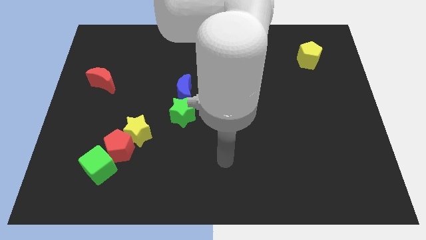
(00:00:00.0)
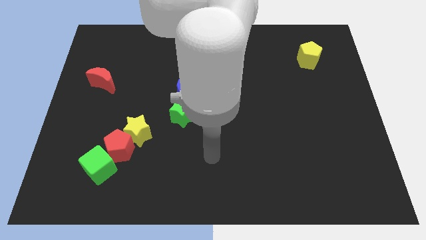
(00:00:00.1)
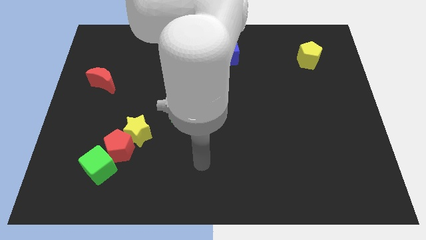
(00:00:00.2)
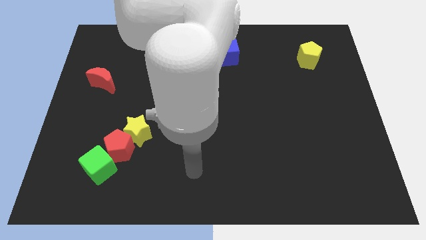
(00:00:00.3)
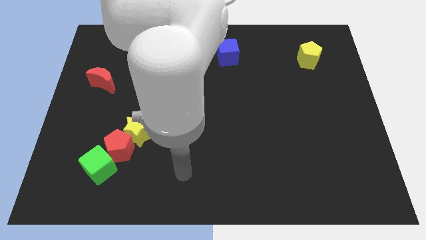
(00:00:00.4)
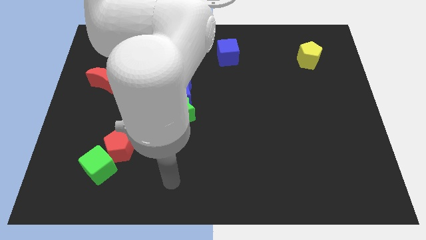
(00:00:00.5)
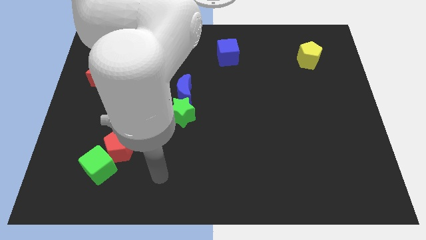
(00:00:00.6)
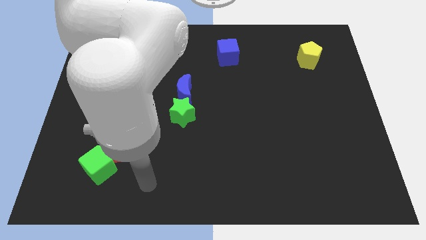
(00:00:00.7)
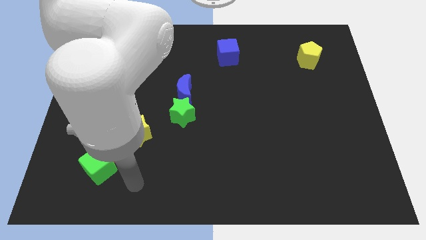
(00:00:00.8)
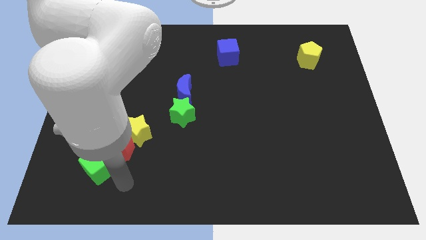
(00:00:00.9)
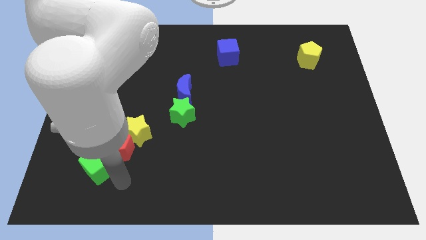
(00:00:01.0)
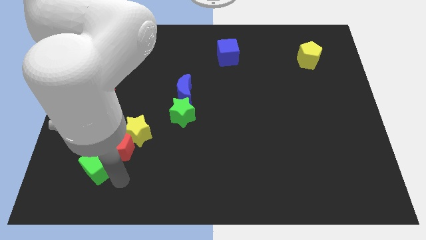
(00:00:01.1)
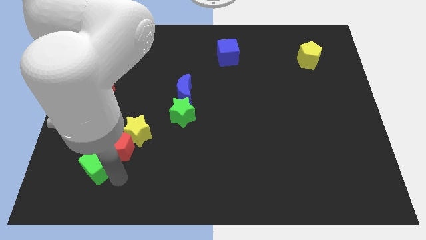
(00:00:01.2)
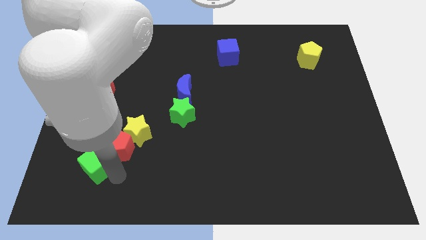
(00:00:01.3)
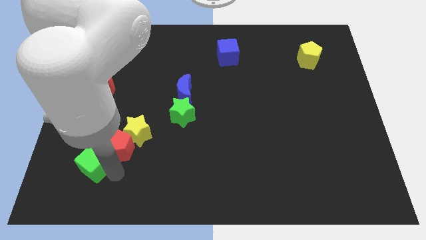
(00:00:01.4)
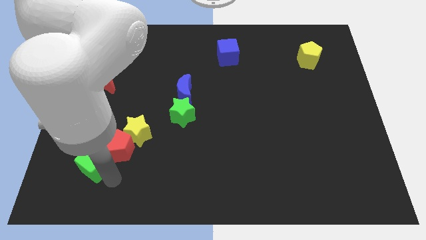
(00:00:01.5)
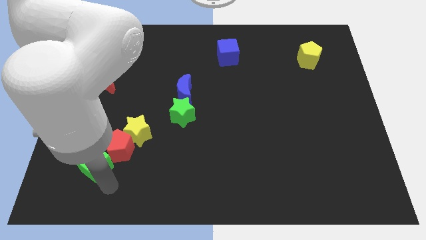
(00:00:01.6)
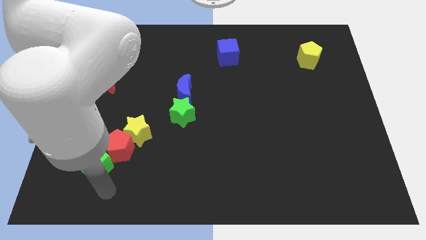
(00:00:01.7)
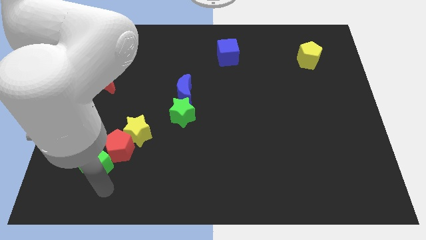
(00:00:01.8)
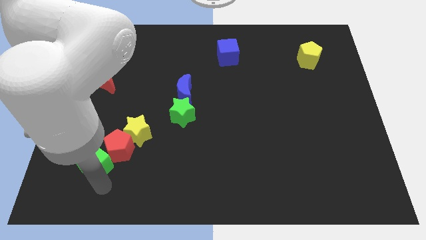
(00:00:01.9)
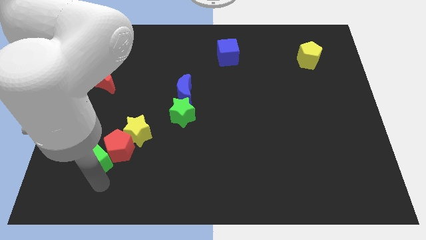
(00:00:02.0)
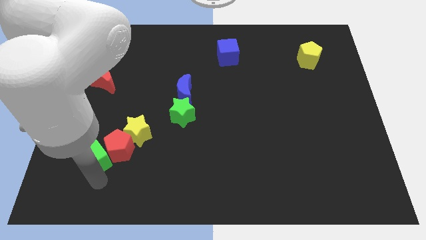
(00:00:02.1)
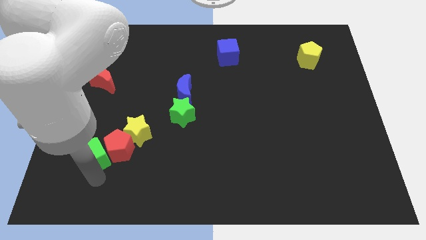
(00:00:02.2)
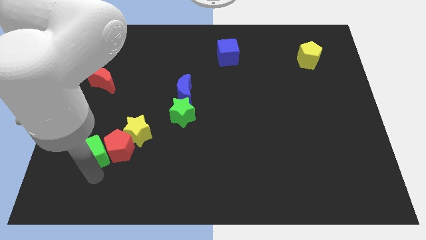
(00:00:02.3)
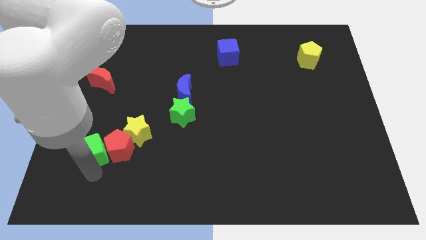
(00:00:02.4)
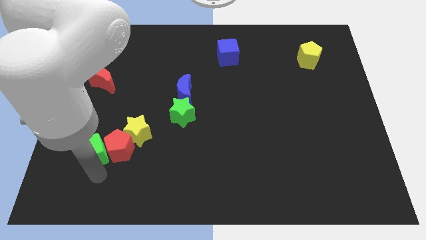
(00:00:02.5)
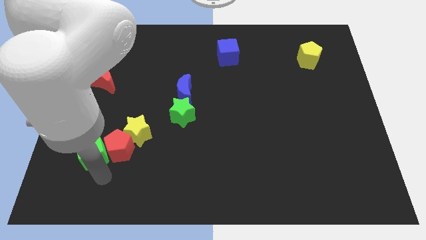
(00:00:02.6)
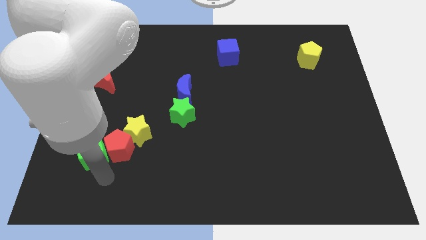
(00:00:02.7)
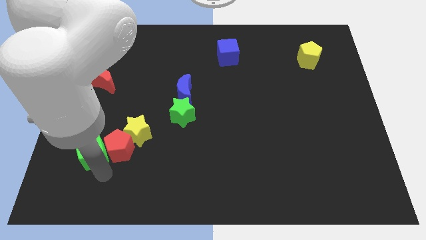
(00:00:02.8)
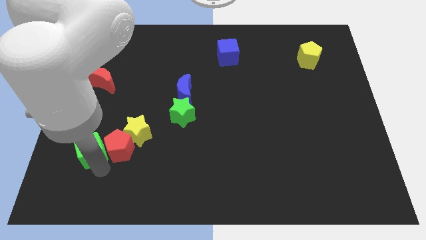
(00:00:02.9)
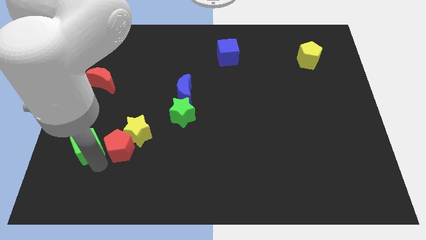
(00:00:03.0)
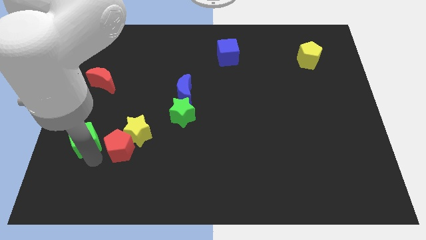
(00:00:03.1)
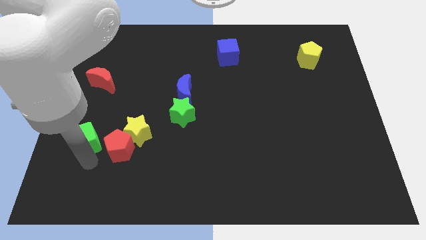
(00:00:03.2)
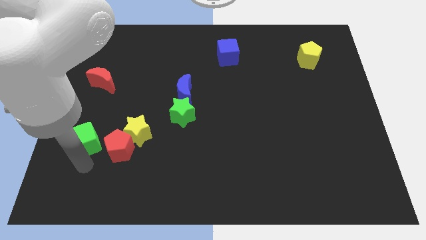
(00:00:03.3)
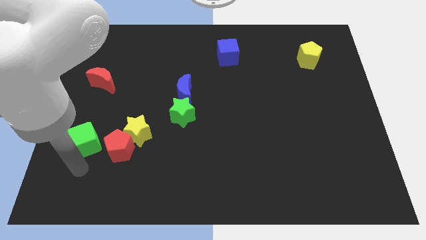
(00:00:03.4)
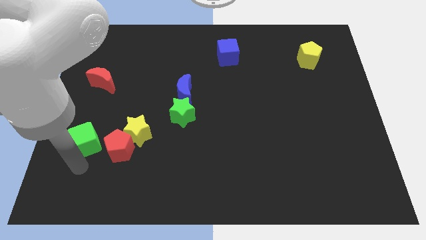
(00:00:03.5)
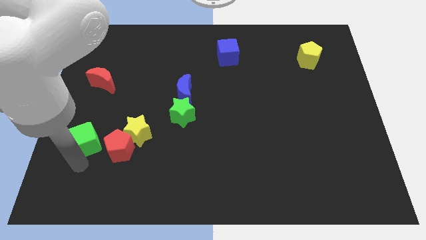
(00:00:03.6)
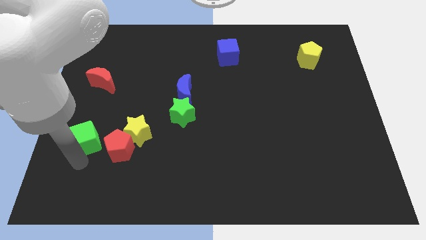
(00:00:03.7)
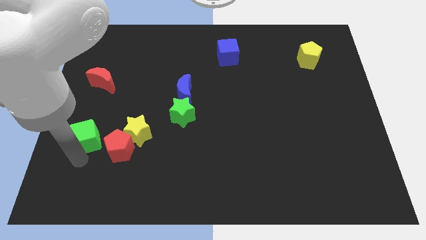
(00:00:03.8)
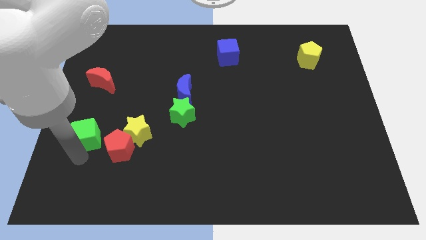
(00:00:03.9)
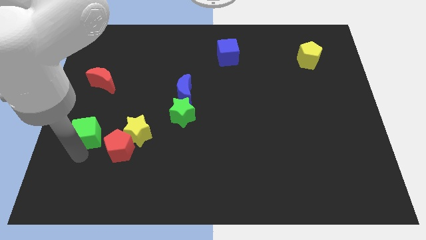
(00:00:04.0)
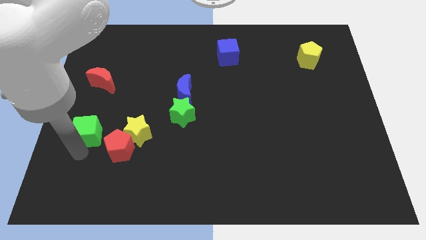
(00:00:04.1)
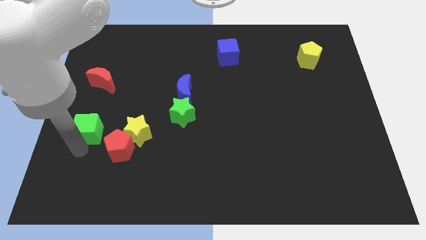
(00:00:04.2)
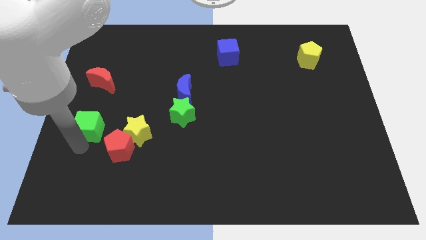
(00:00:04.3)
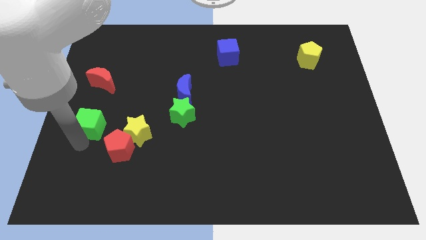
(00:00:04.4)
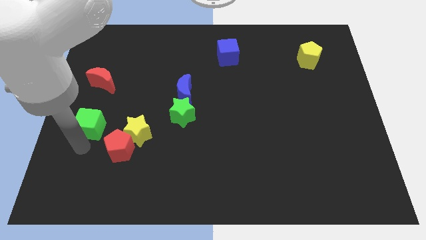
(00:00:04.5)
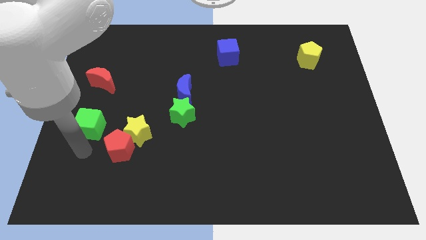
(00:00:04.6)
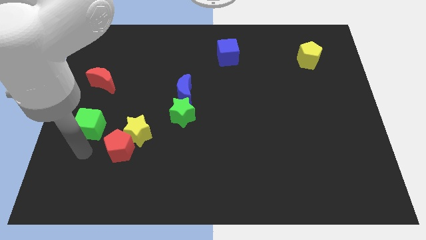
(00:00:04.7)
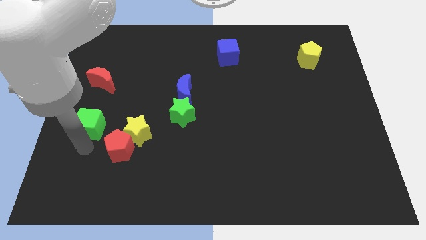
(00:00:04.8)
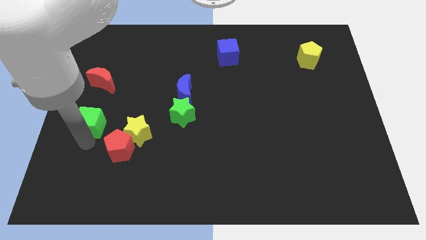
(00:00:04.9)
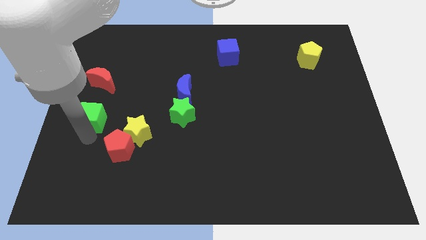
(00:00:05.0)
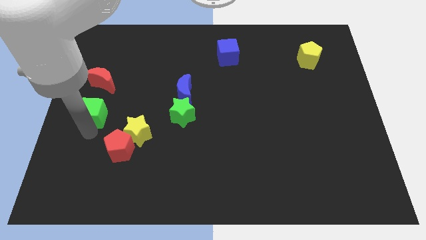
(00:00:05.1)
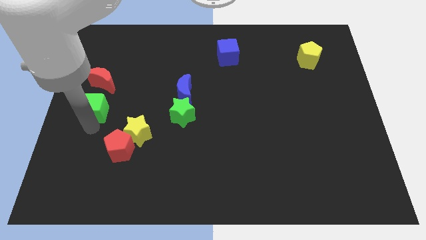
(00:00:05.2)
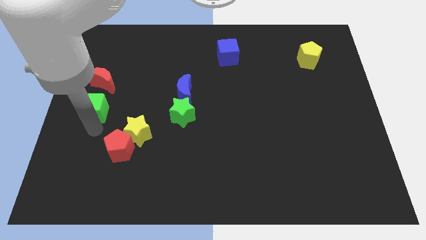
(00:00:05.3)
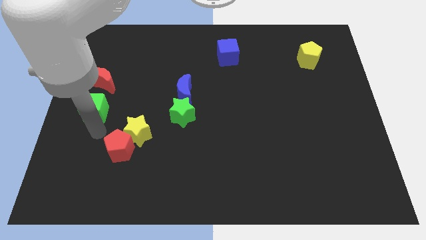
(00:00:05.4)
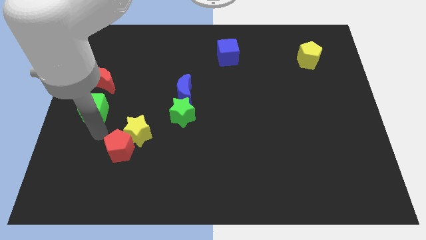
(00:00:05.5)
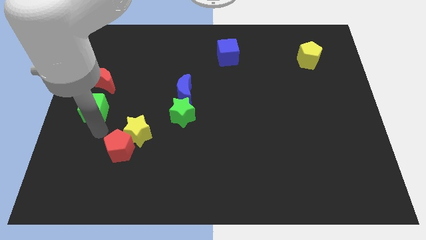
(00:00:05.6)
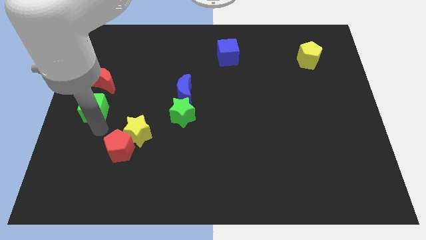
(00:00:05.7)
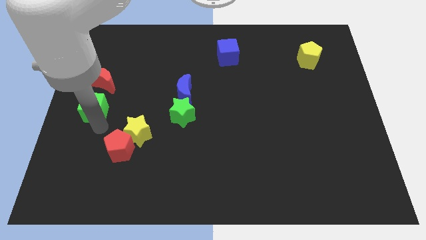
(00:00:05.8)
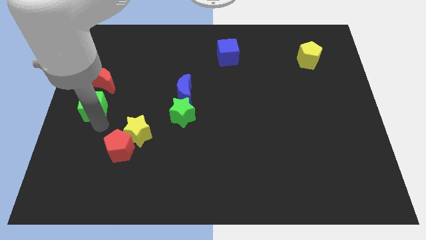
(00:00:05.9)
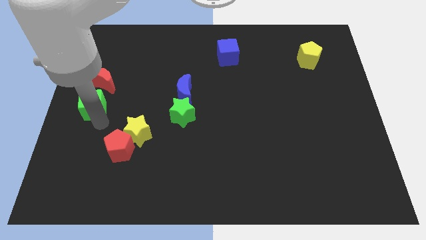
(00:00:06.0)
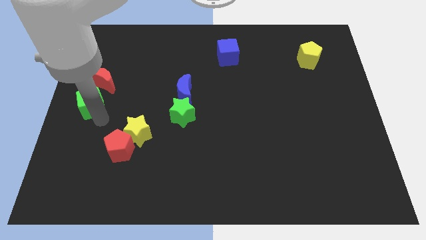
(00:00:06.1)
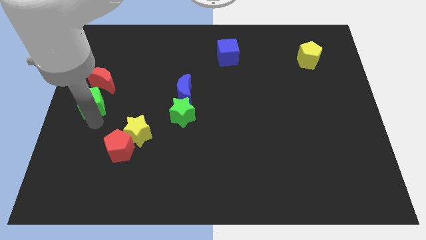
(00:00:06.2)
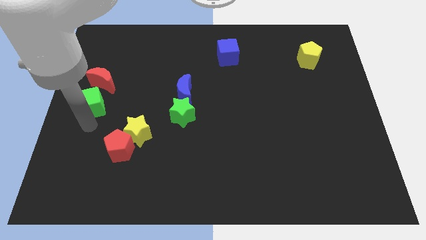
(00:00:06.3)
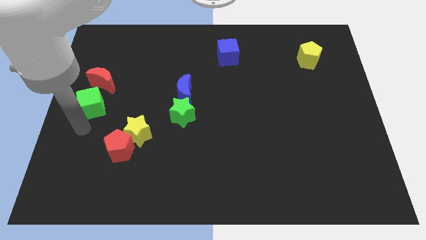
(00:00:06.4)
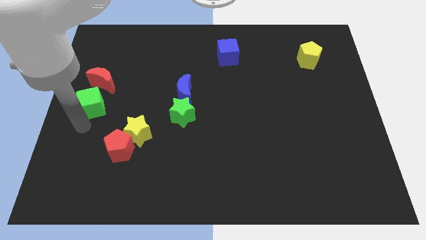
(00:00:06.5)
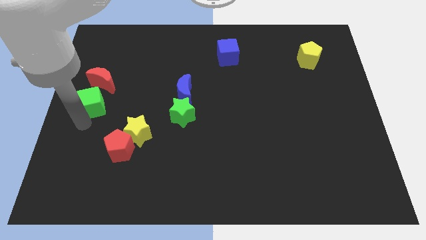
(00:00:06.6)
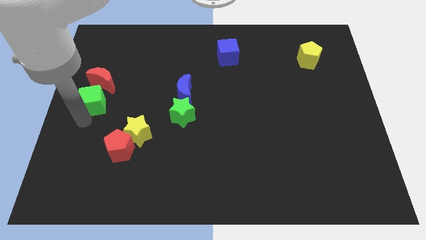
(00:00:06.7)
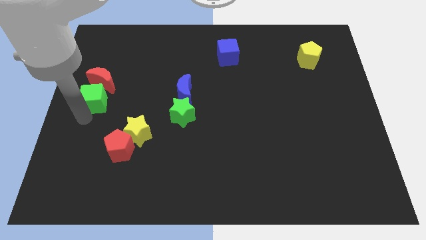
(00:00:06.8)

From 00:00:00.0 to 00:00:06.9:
move the green cube close to the red moon
